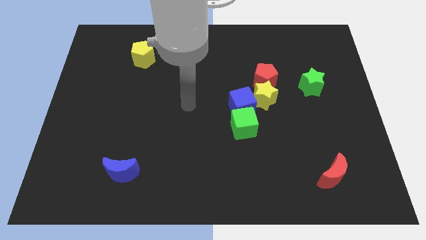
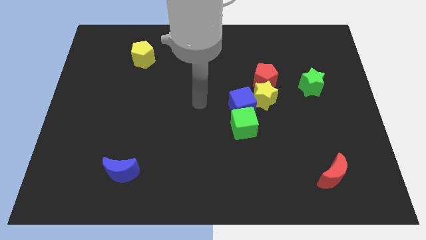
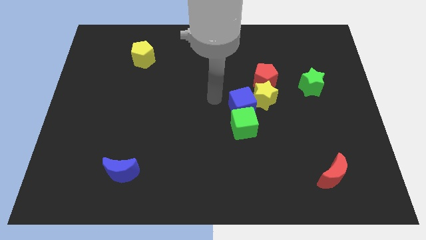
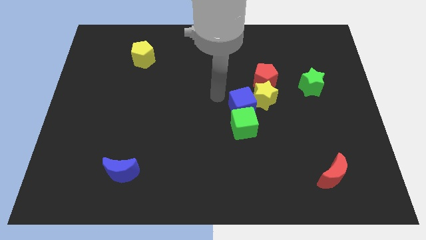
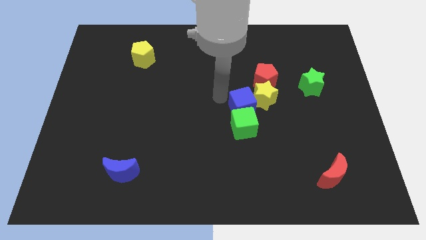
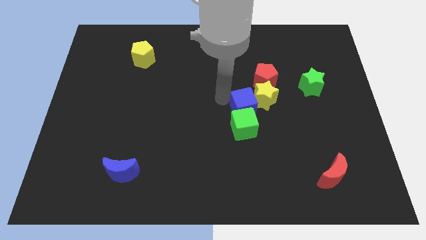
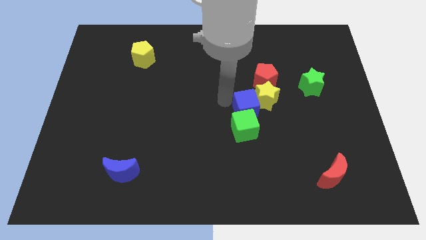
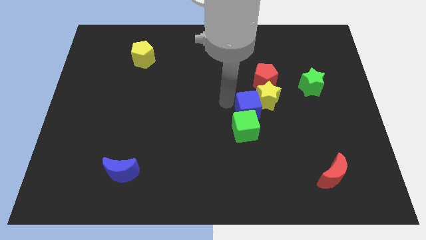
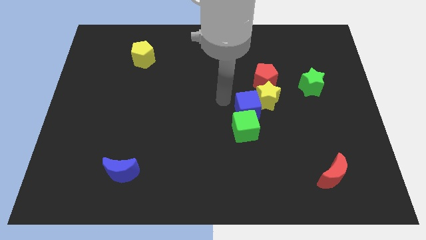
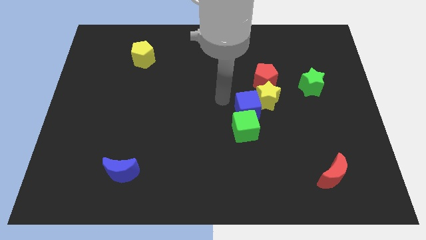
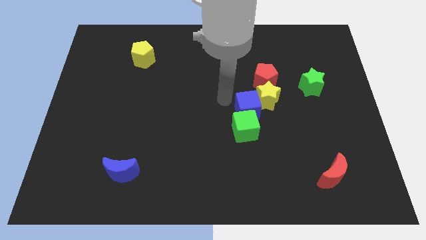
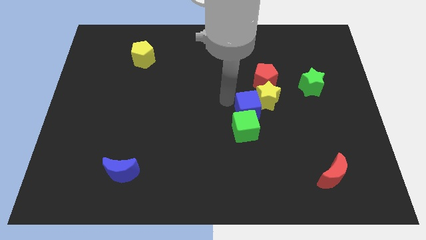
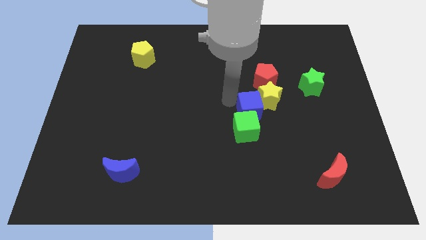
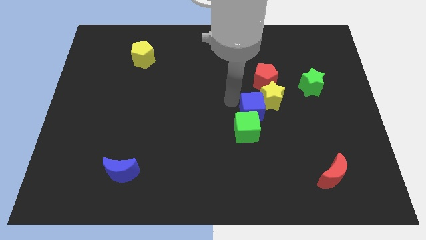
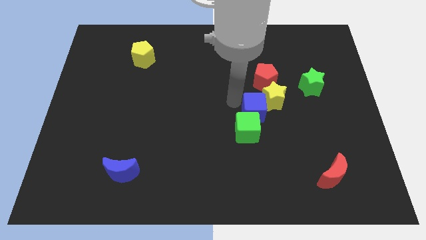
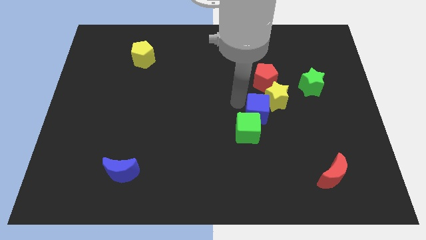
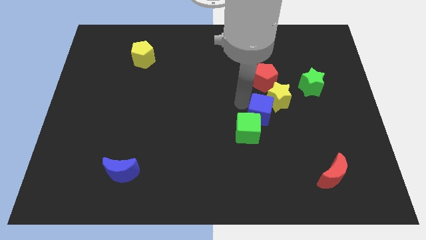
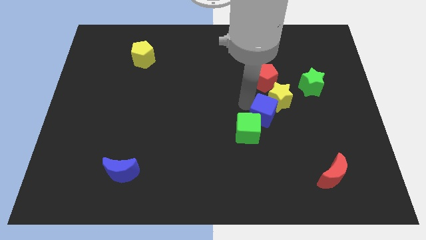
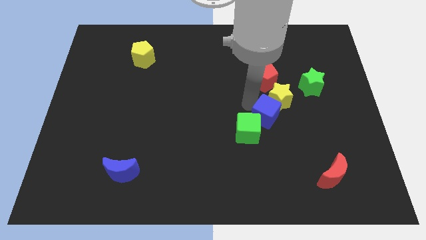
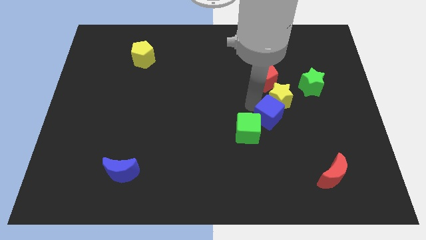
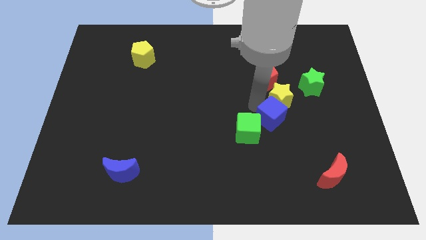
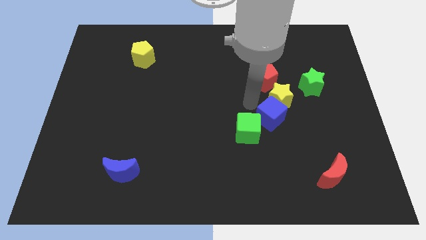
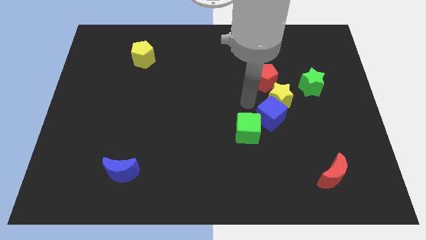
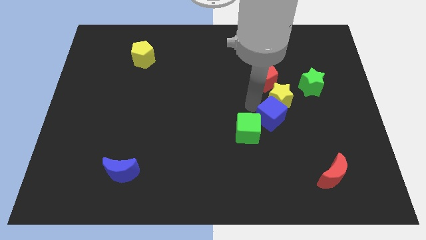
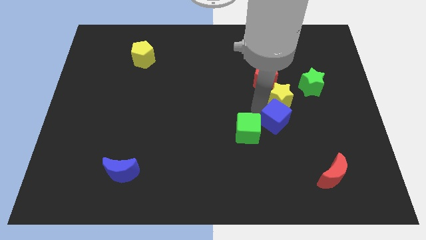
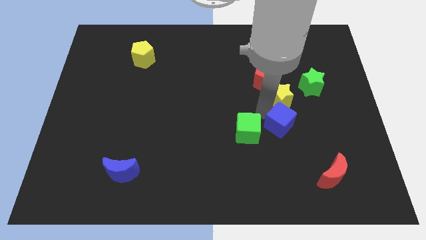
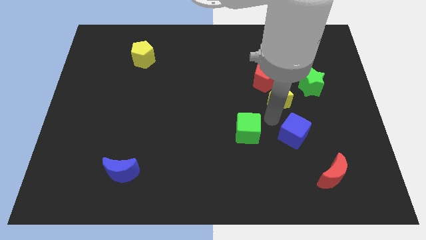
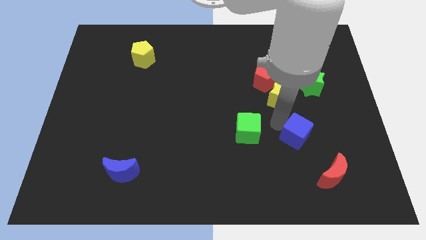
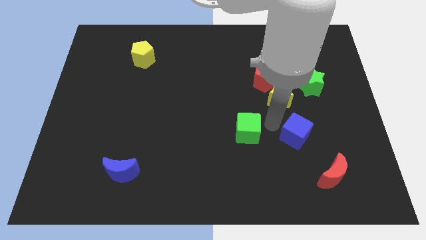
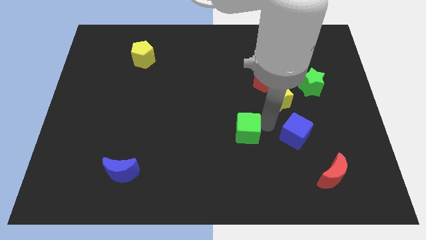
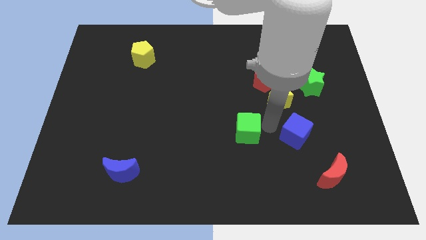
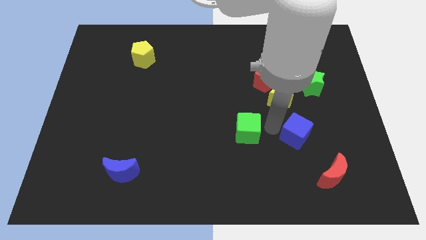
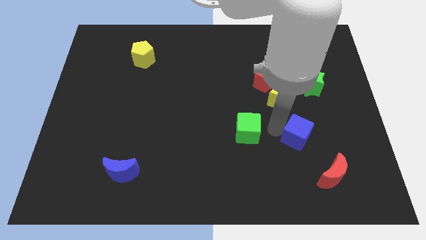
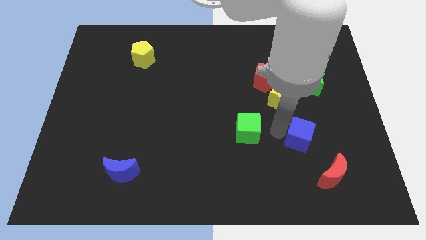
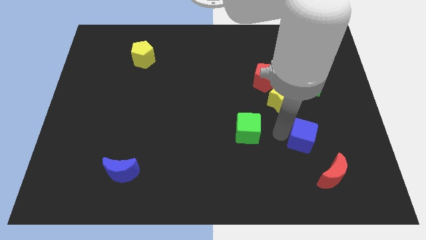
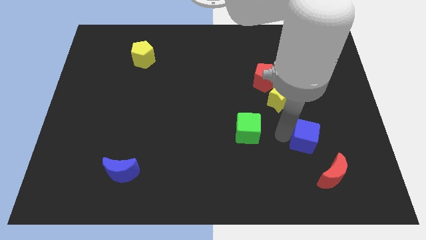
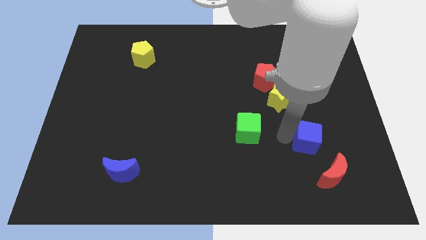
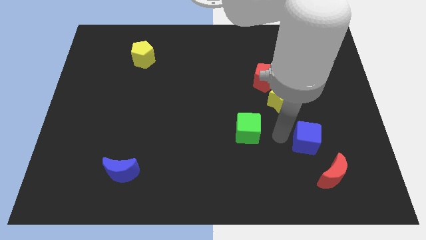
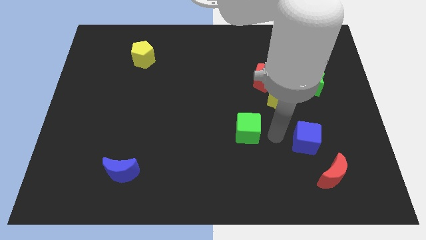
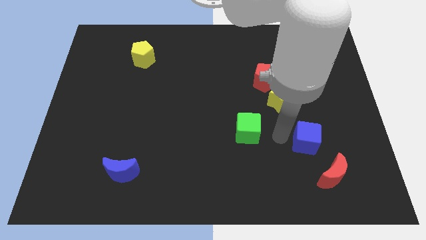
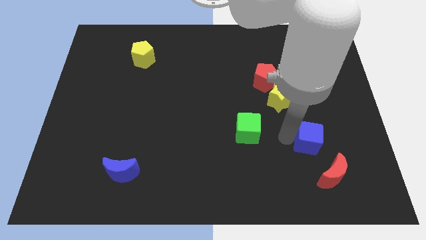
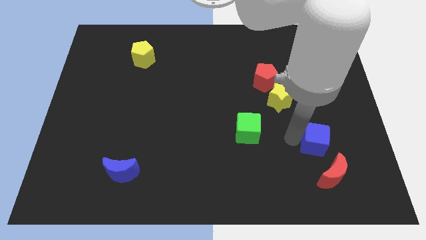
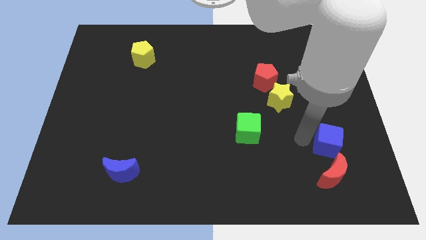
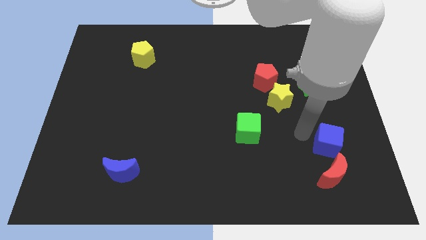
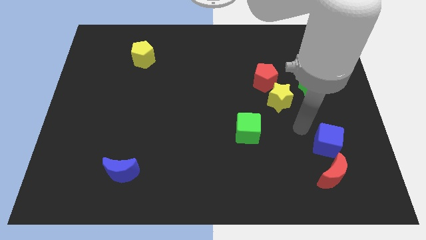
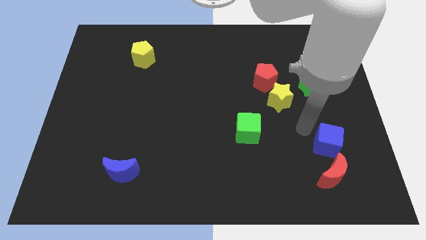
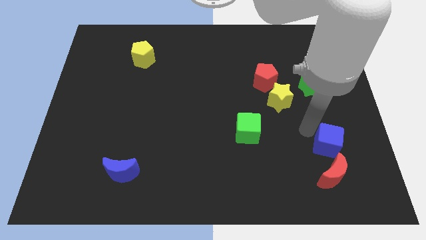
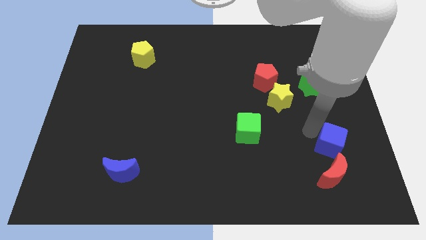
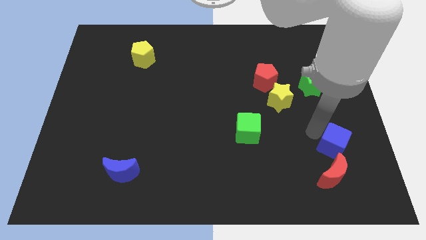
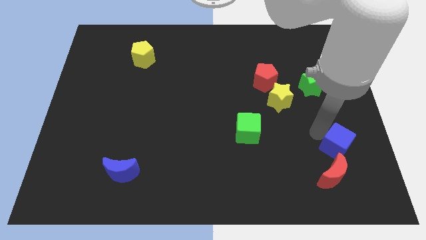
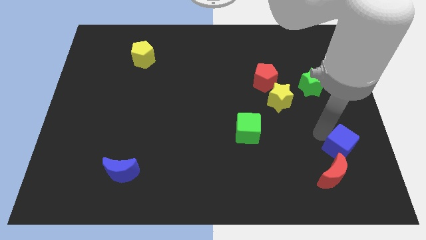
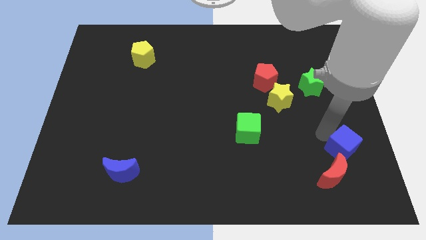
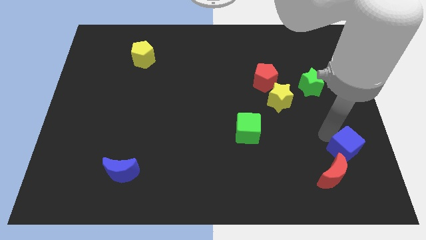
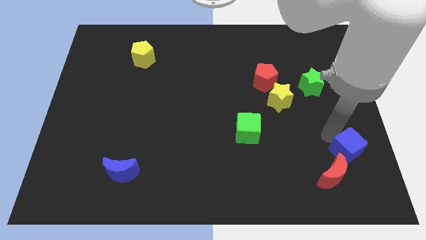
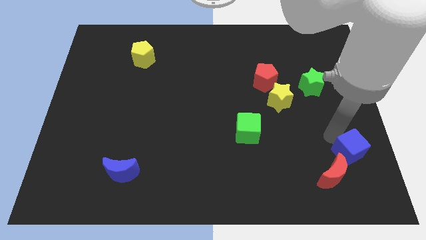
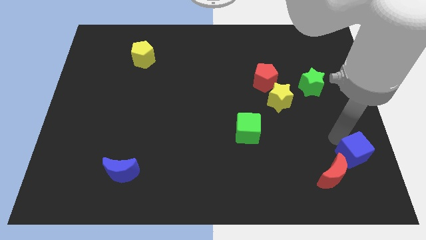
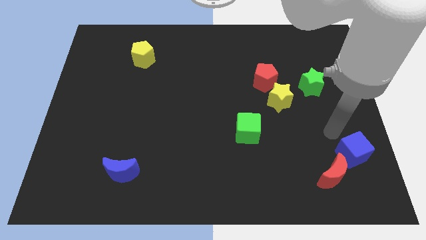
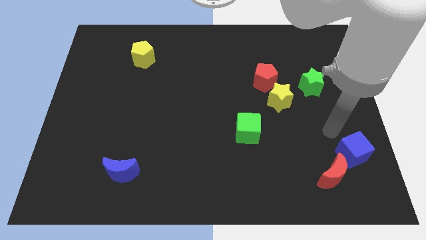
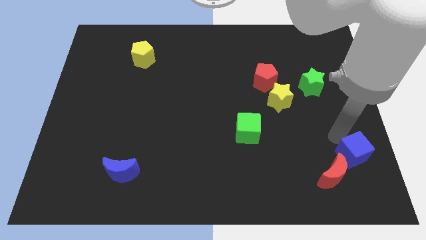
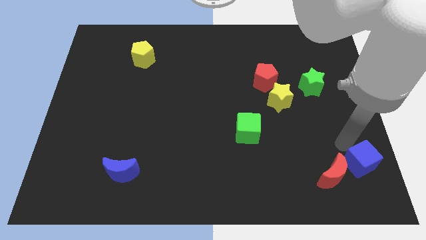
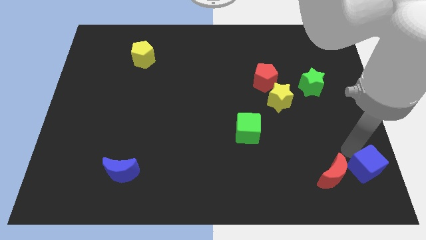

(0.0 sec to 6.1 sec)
push the blue cube to the lower right corner
